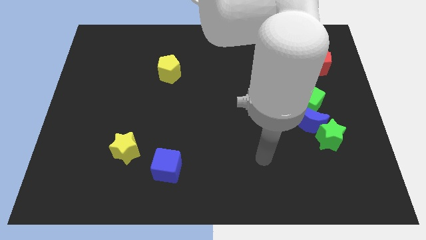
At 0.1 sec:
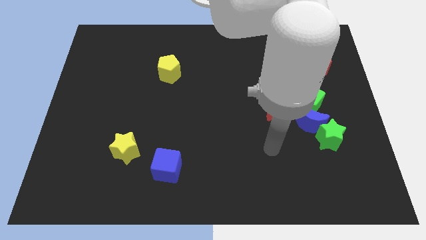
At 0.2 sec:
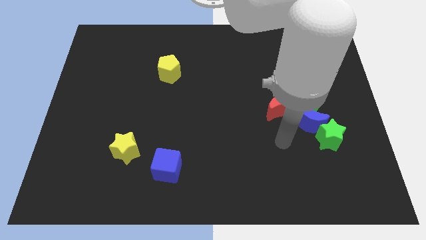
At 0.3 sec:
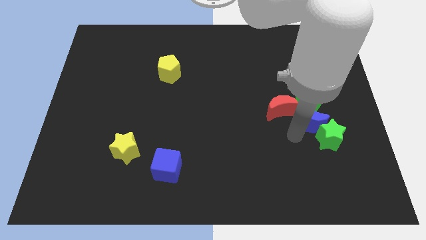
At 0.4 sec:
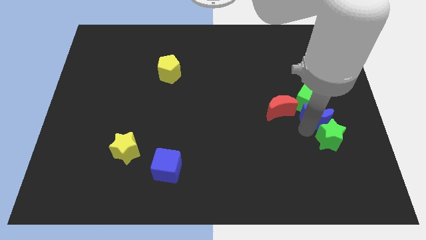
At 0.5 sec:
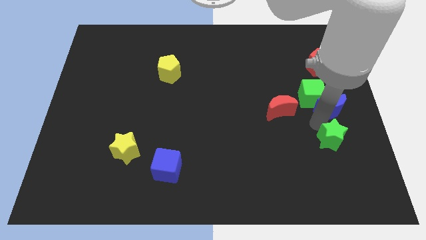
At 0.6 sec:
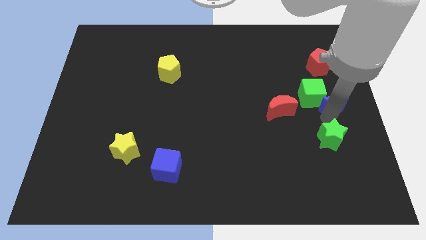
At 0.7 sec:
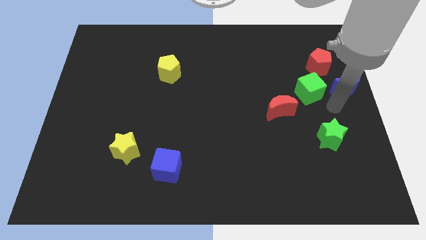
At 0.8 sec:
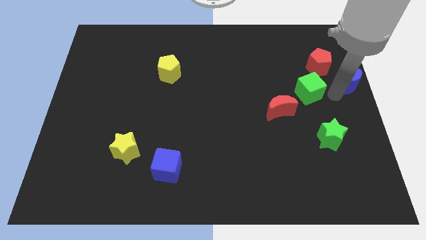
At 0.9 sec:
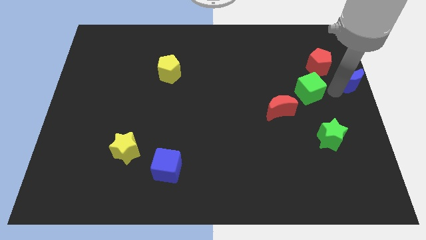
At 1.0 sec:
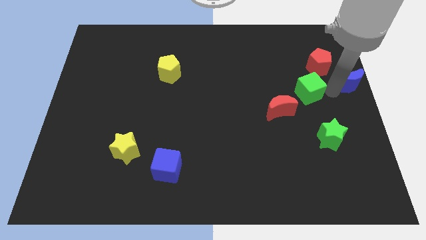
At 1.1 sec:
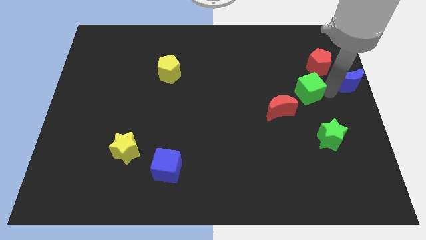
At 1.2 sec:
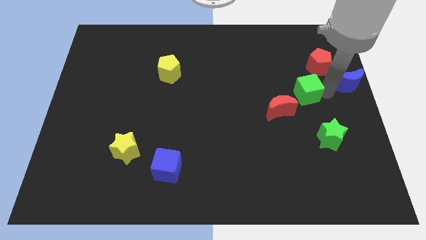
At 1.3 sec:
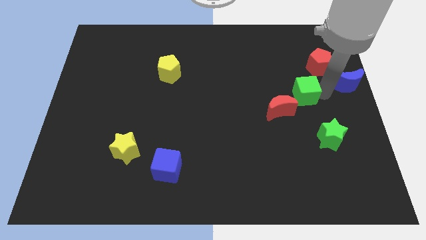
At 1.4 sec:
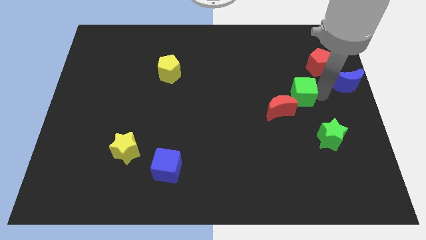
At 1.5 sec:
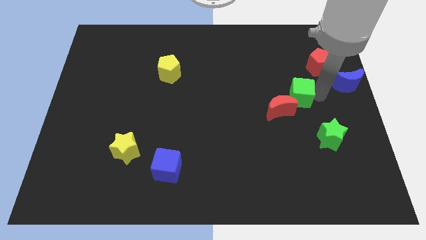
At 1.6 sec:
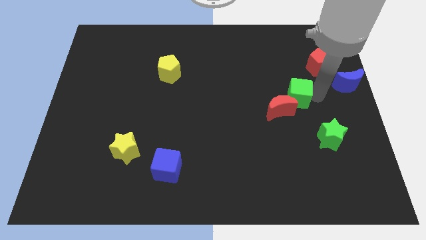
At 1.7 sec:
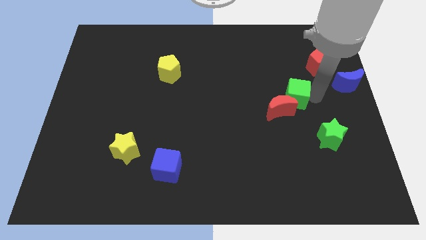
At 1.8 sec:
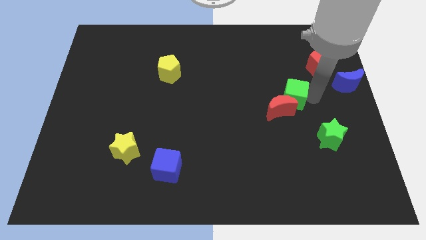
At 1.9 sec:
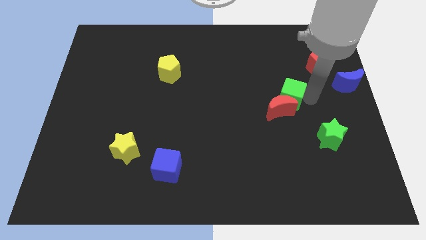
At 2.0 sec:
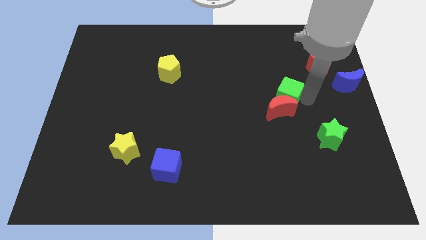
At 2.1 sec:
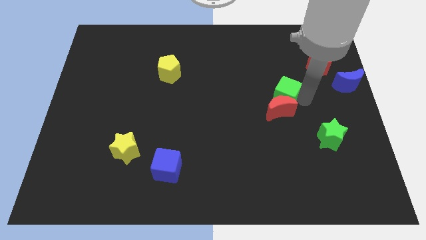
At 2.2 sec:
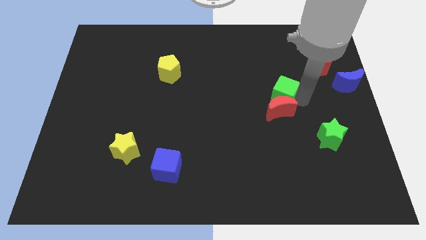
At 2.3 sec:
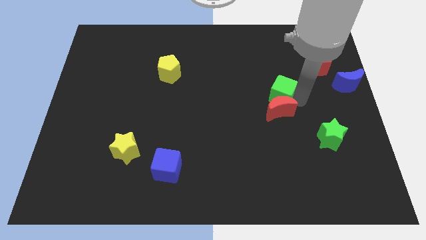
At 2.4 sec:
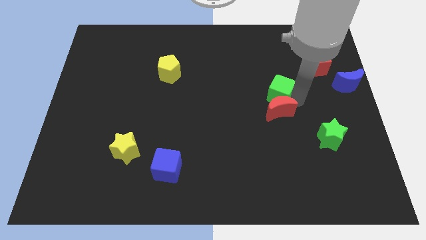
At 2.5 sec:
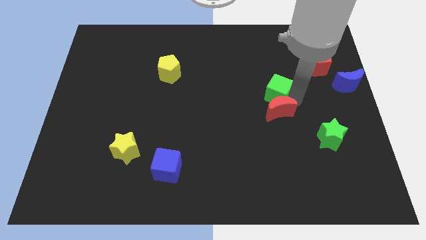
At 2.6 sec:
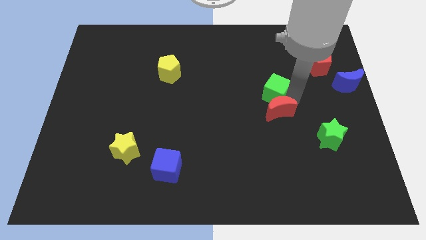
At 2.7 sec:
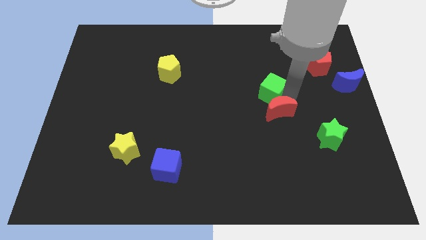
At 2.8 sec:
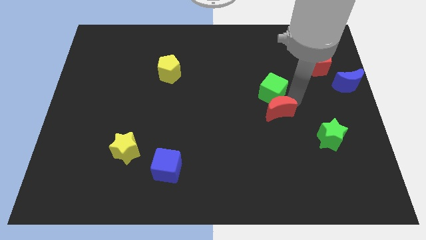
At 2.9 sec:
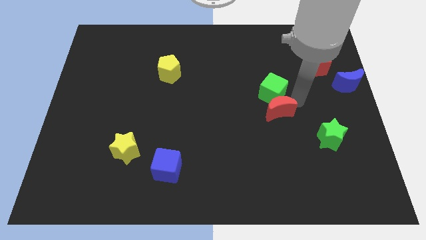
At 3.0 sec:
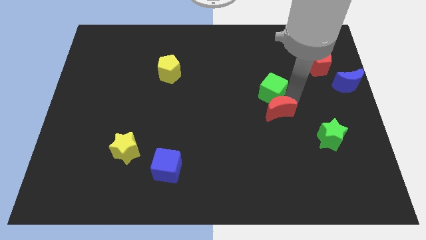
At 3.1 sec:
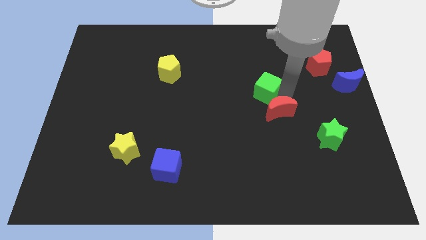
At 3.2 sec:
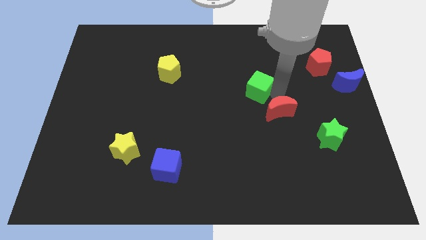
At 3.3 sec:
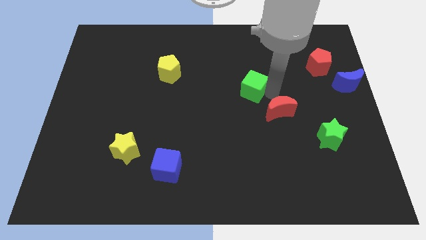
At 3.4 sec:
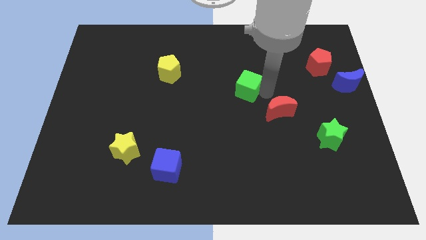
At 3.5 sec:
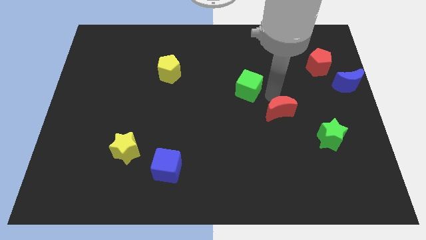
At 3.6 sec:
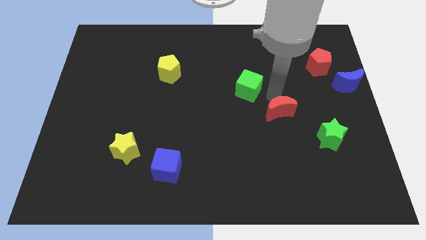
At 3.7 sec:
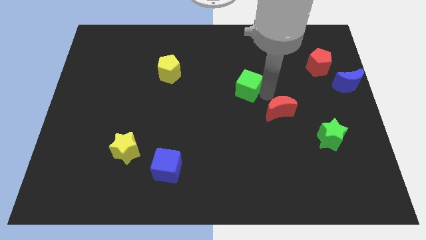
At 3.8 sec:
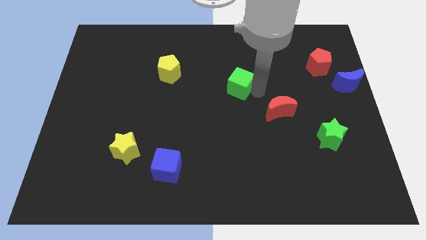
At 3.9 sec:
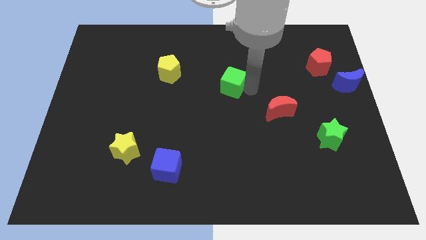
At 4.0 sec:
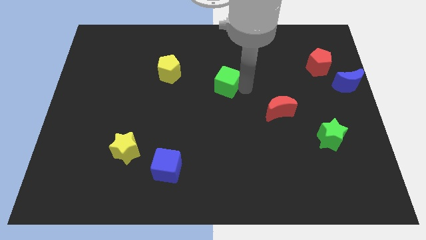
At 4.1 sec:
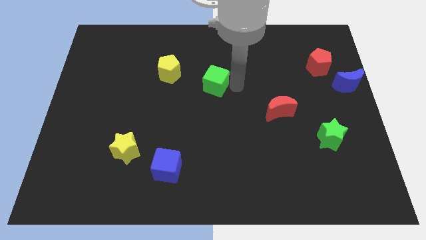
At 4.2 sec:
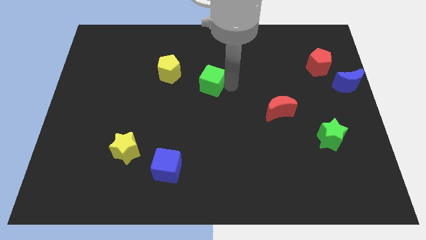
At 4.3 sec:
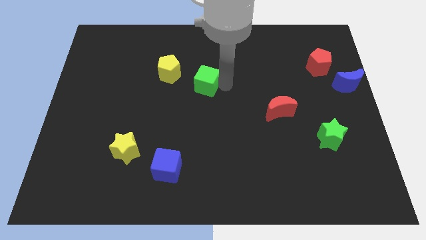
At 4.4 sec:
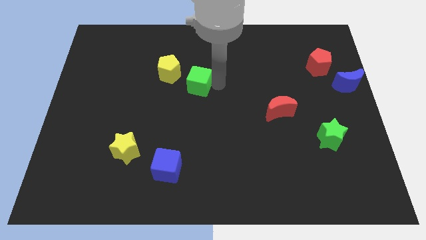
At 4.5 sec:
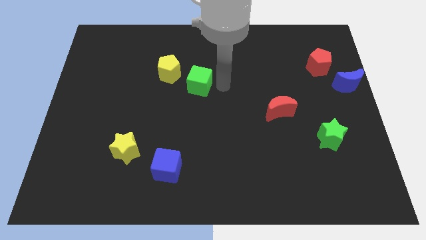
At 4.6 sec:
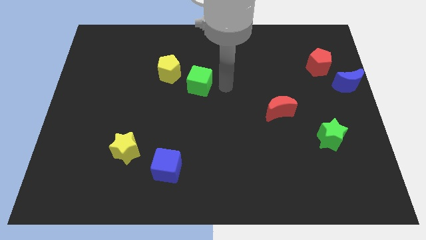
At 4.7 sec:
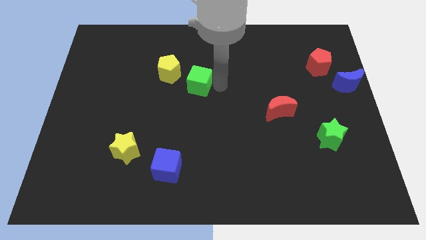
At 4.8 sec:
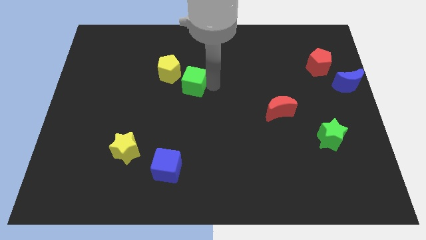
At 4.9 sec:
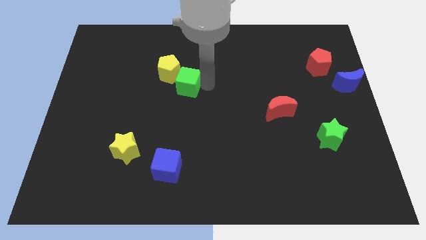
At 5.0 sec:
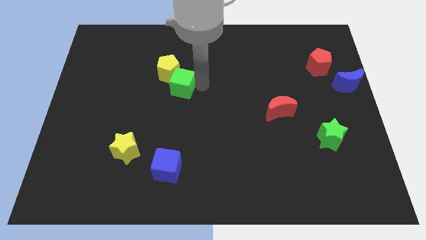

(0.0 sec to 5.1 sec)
push the green cube towards the yellow pentagon

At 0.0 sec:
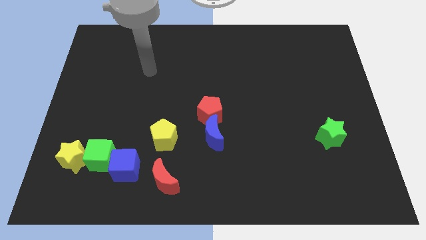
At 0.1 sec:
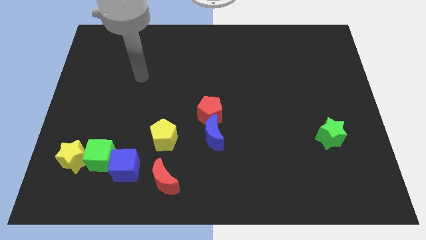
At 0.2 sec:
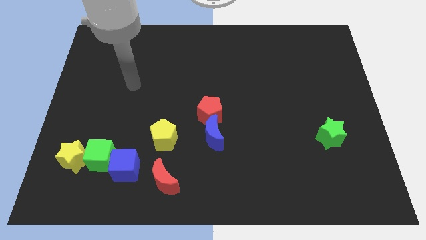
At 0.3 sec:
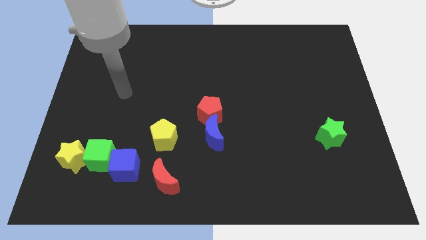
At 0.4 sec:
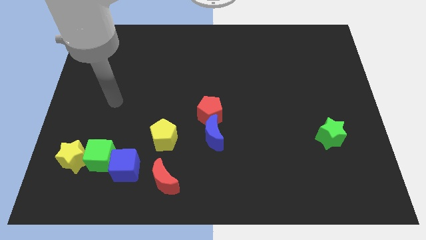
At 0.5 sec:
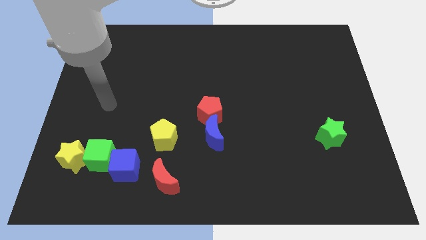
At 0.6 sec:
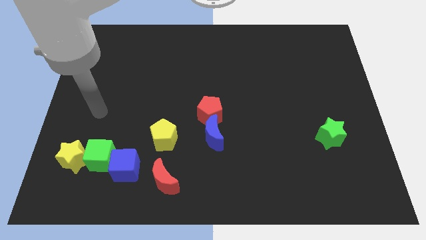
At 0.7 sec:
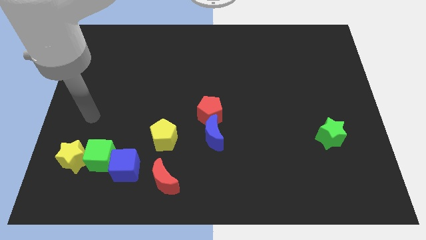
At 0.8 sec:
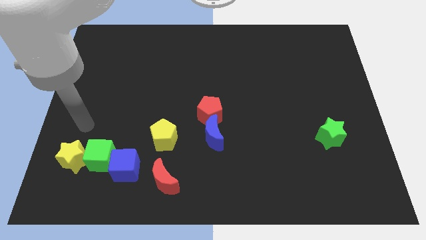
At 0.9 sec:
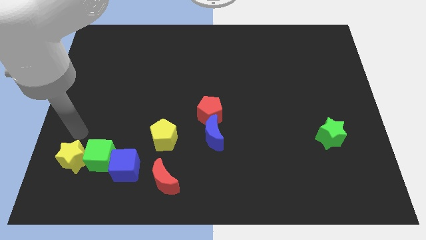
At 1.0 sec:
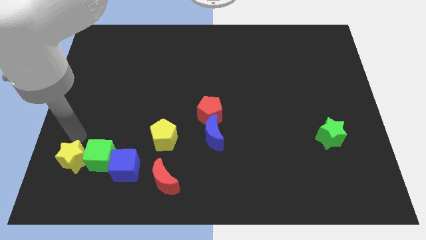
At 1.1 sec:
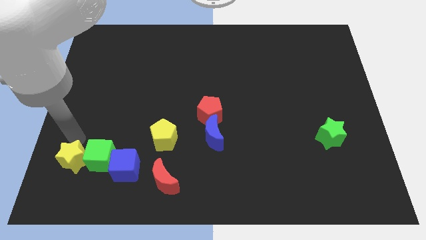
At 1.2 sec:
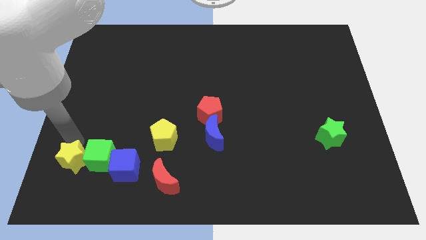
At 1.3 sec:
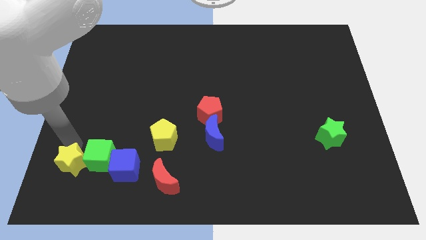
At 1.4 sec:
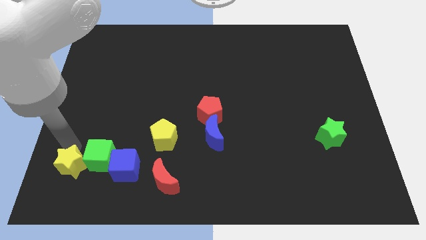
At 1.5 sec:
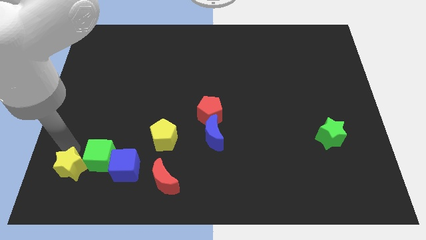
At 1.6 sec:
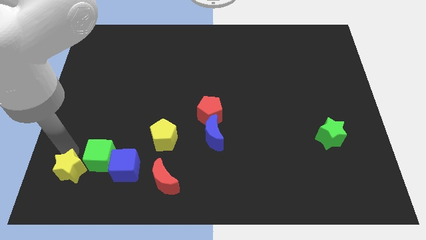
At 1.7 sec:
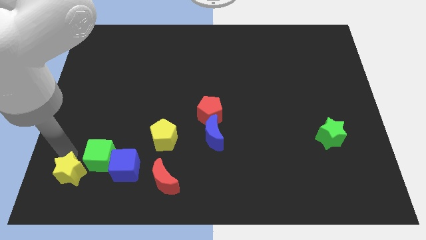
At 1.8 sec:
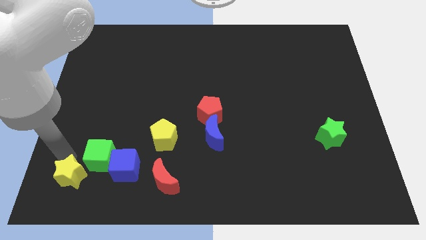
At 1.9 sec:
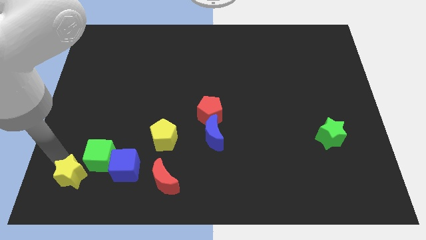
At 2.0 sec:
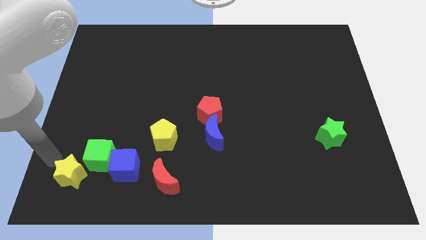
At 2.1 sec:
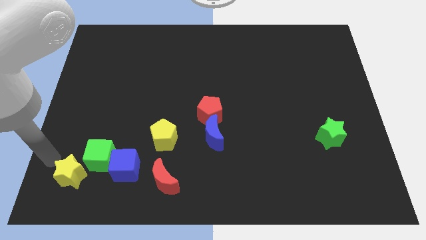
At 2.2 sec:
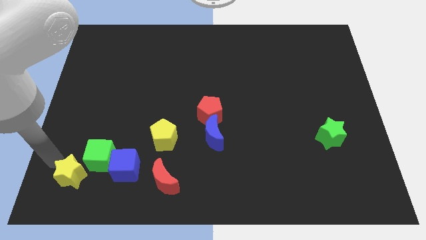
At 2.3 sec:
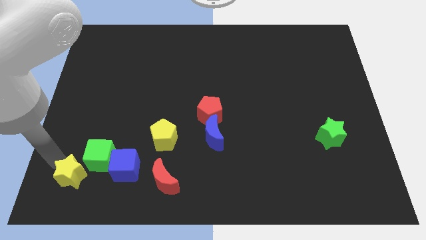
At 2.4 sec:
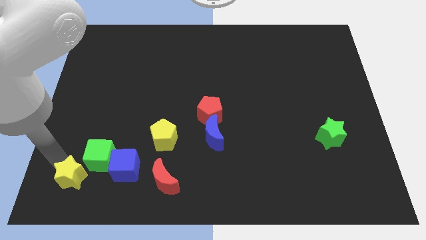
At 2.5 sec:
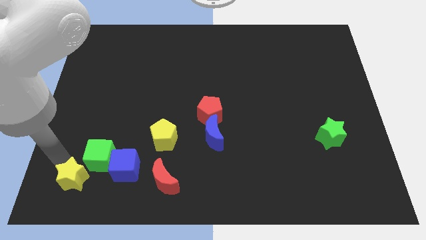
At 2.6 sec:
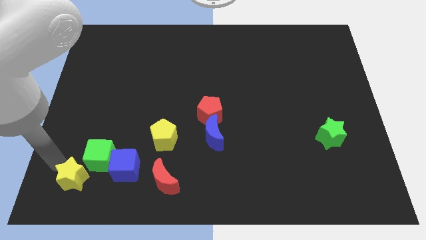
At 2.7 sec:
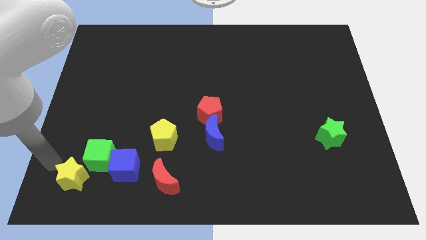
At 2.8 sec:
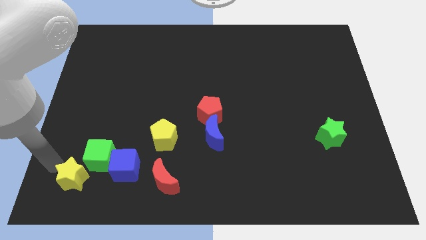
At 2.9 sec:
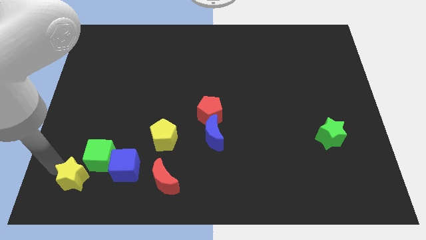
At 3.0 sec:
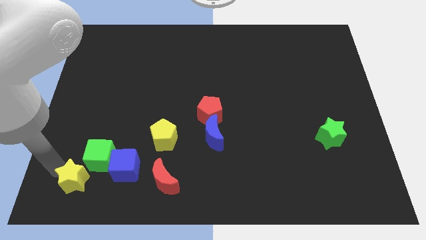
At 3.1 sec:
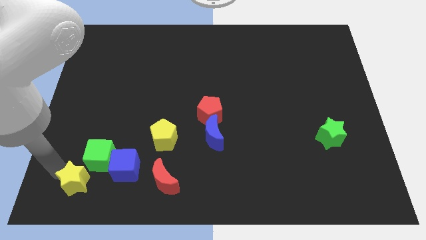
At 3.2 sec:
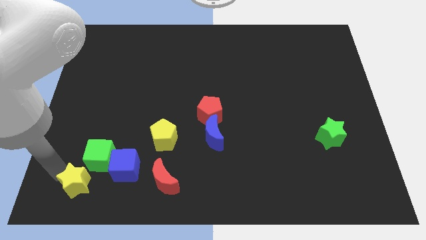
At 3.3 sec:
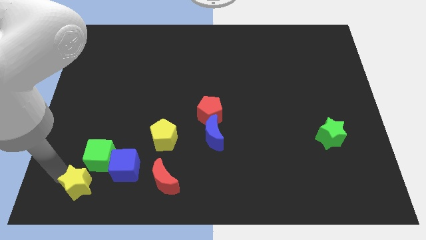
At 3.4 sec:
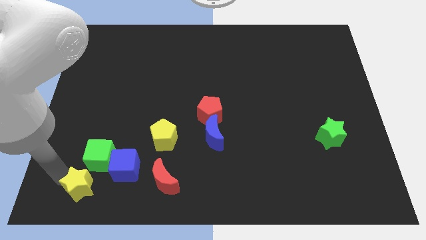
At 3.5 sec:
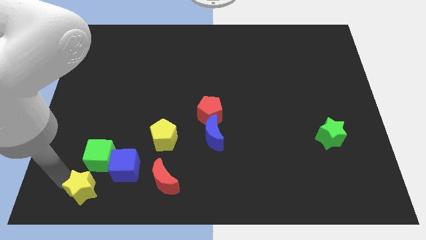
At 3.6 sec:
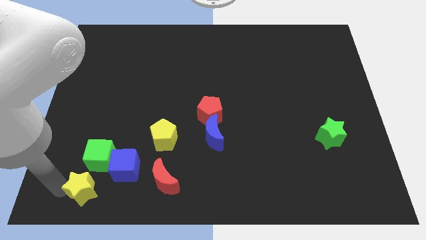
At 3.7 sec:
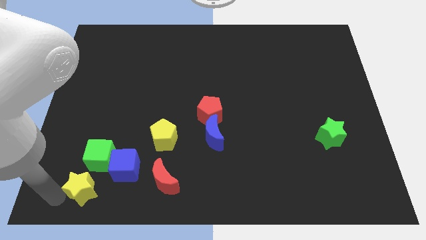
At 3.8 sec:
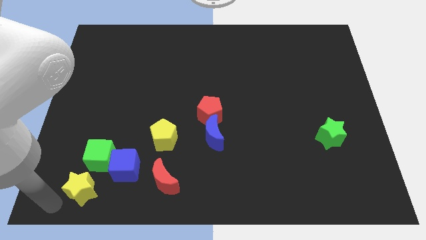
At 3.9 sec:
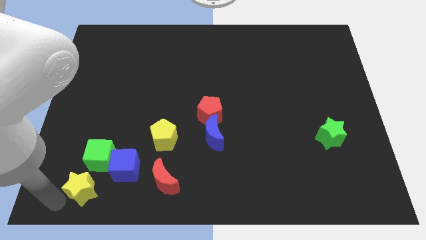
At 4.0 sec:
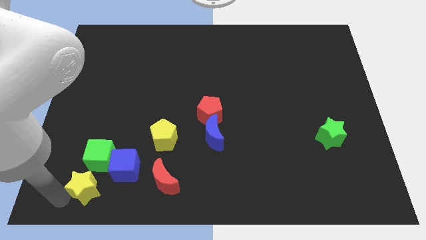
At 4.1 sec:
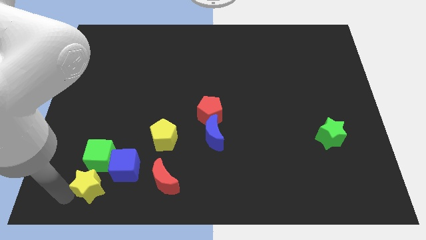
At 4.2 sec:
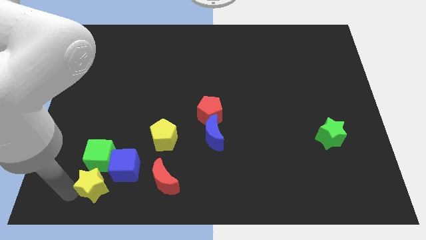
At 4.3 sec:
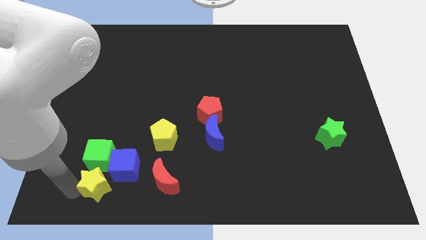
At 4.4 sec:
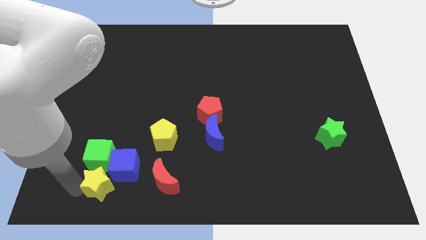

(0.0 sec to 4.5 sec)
slide the yellow star to the blue cube
